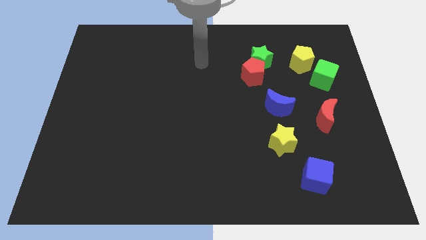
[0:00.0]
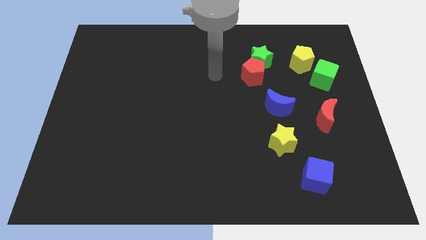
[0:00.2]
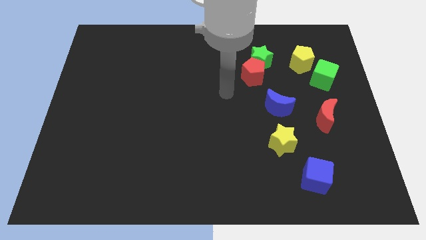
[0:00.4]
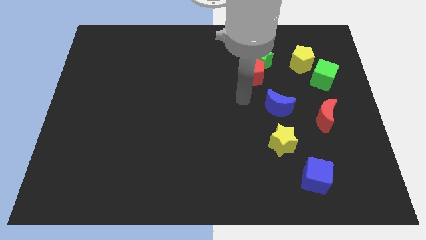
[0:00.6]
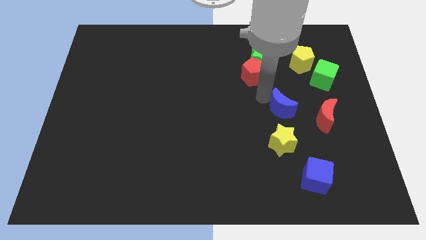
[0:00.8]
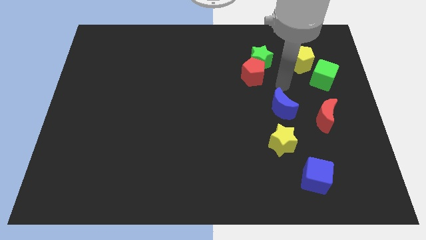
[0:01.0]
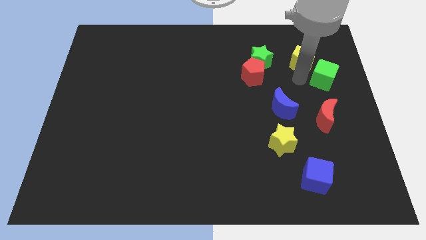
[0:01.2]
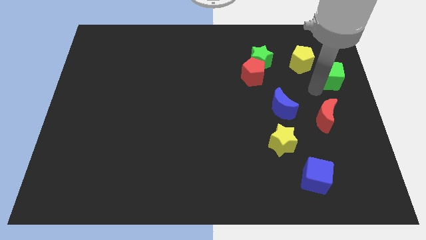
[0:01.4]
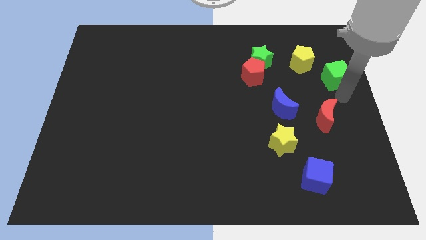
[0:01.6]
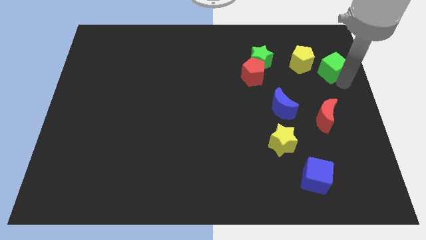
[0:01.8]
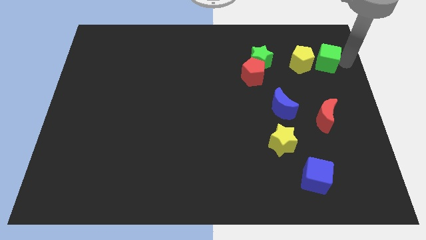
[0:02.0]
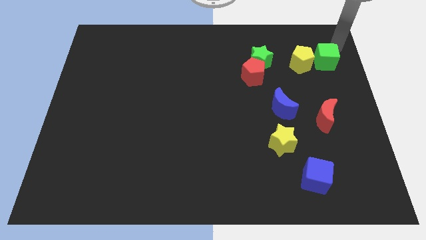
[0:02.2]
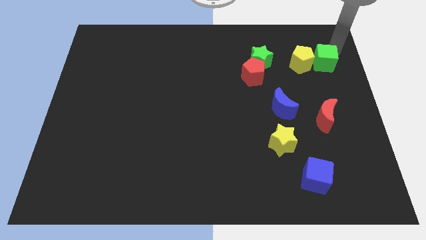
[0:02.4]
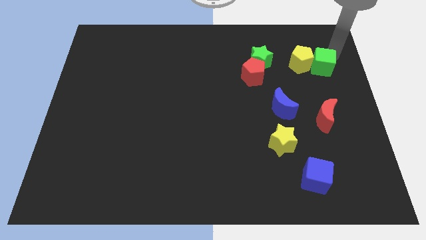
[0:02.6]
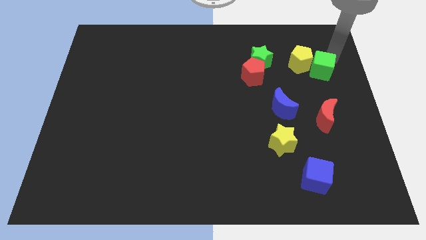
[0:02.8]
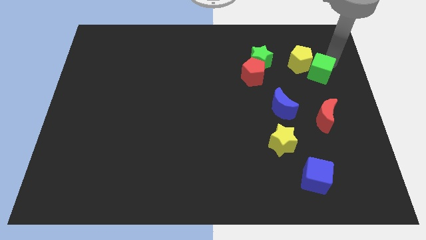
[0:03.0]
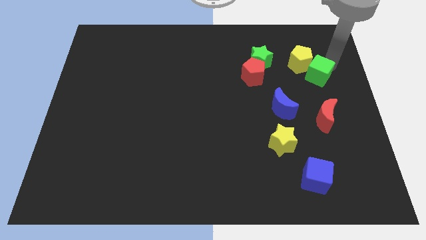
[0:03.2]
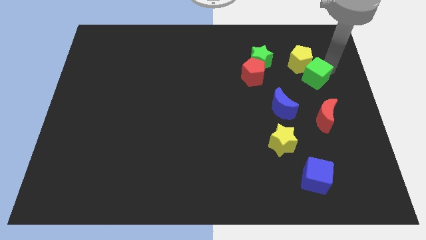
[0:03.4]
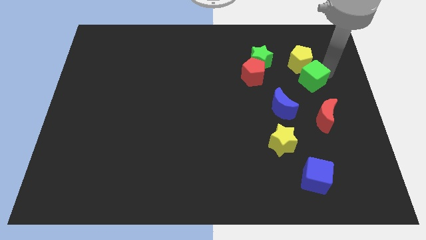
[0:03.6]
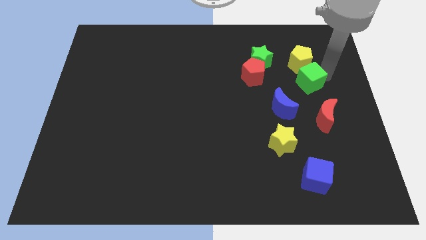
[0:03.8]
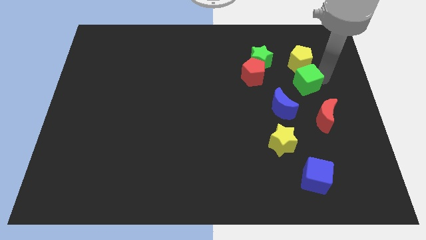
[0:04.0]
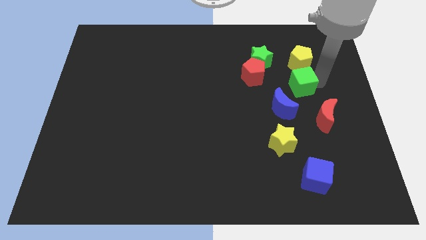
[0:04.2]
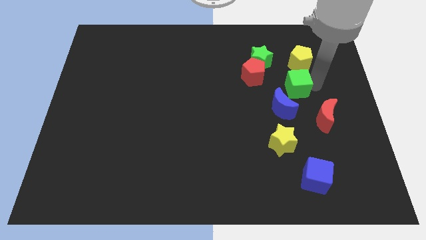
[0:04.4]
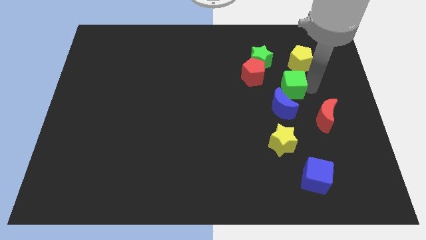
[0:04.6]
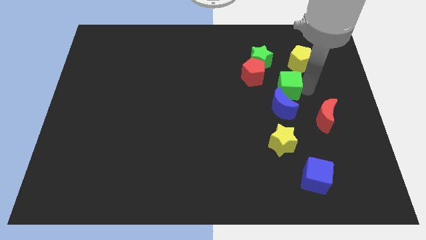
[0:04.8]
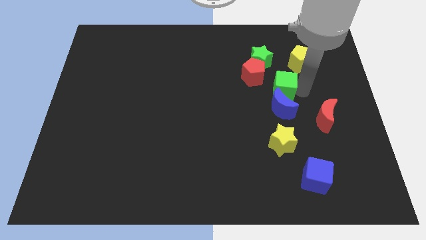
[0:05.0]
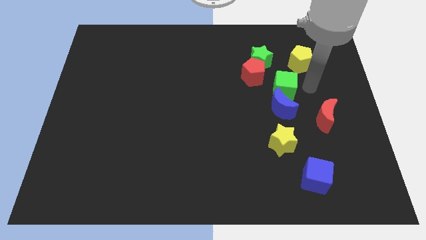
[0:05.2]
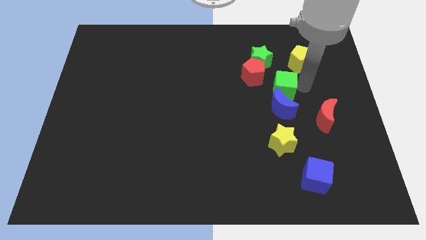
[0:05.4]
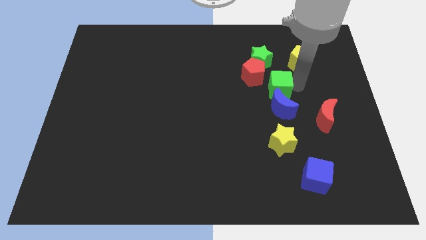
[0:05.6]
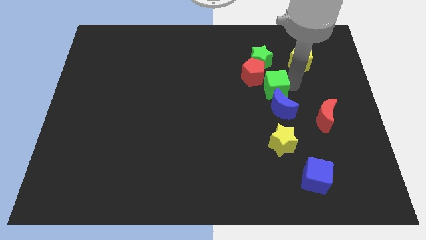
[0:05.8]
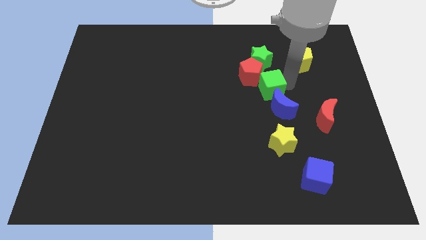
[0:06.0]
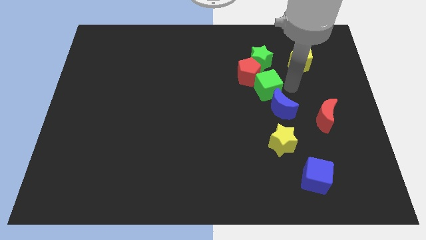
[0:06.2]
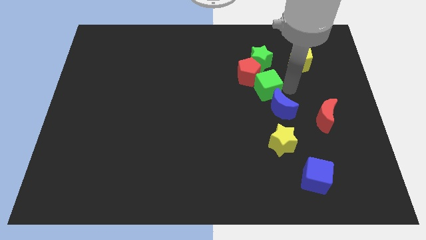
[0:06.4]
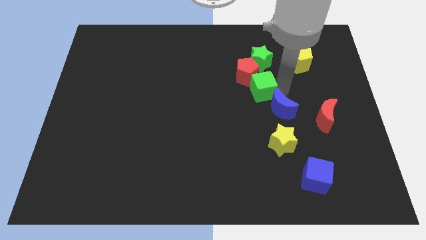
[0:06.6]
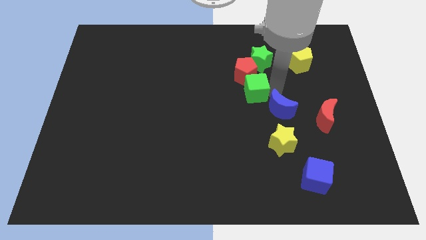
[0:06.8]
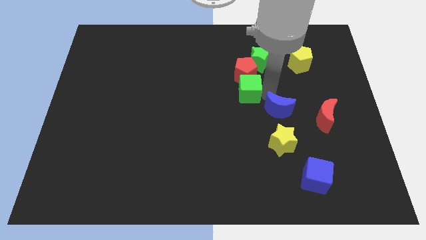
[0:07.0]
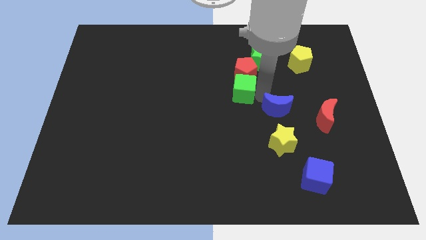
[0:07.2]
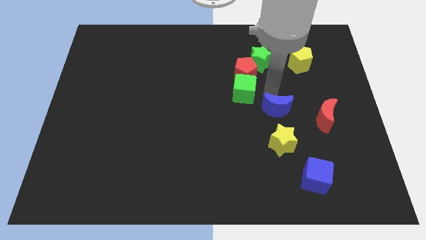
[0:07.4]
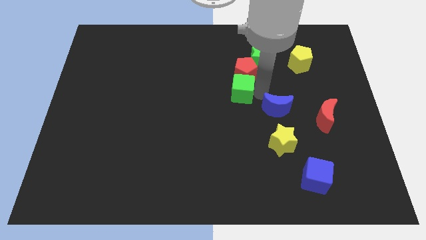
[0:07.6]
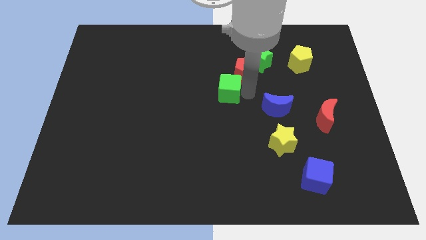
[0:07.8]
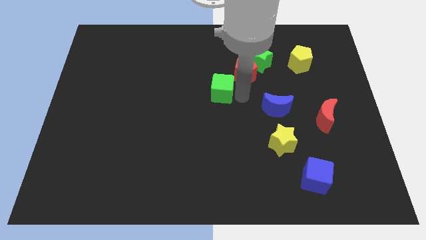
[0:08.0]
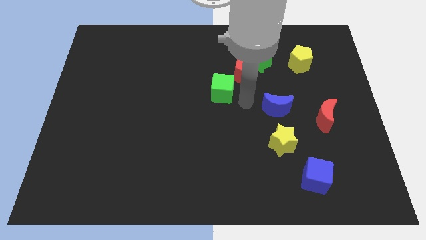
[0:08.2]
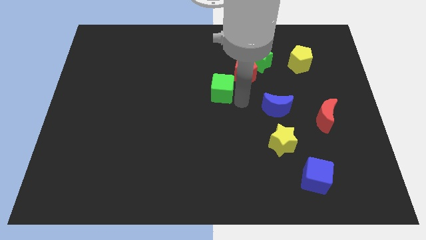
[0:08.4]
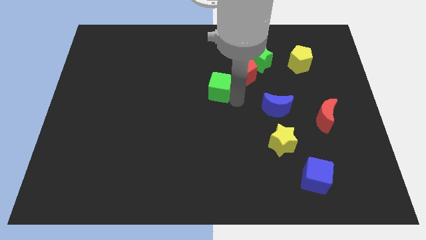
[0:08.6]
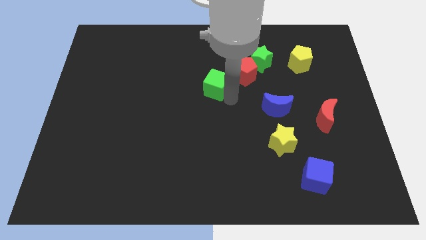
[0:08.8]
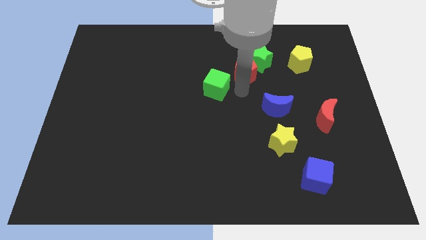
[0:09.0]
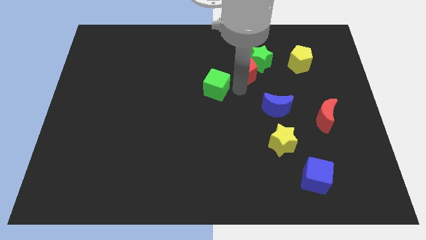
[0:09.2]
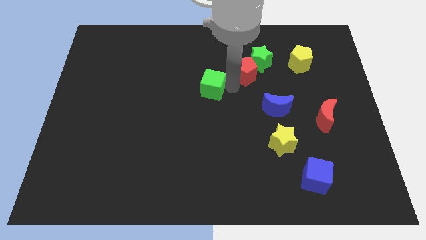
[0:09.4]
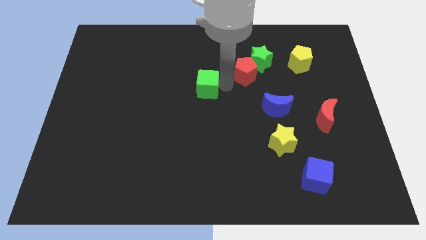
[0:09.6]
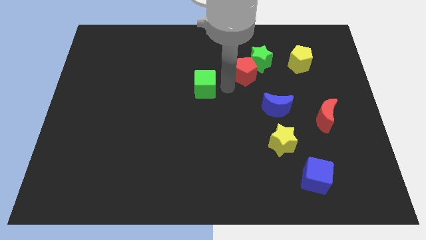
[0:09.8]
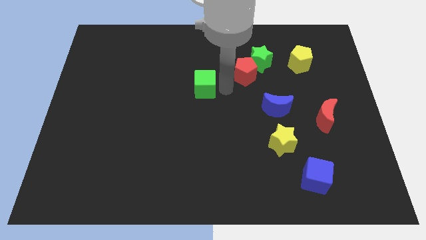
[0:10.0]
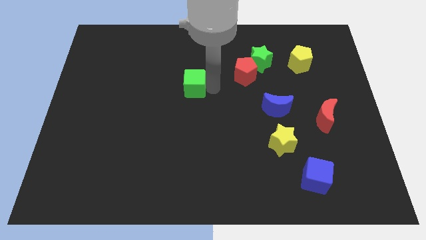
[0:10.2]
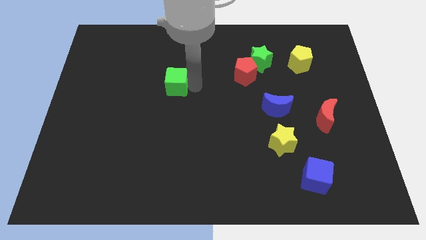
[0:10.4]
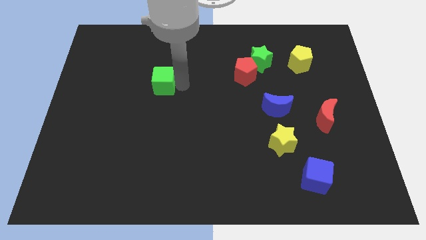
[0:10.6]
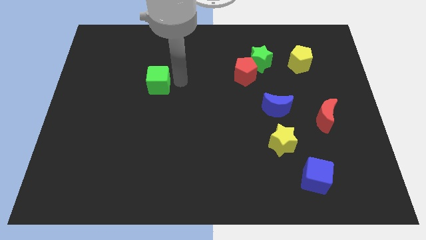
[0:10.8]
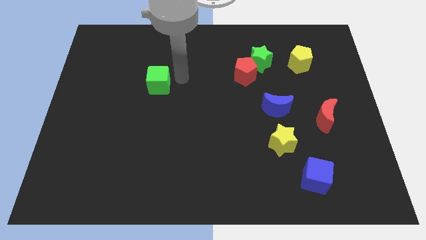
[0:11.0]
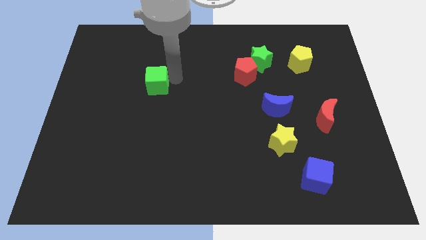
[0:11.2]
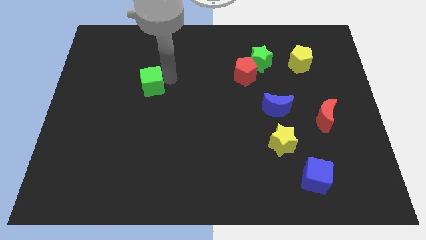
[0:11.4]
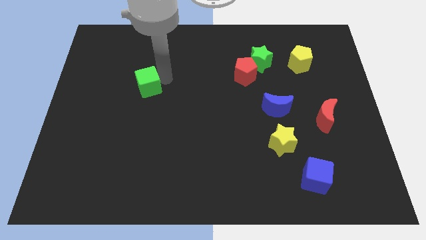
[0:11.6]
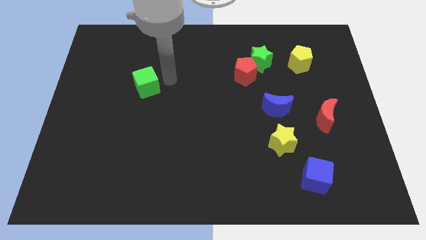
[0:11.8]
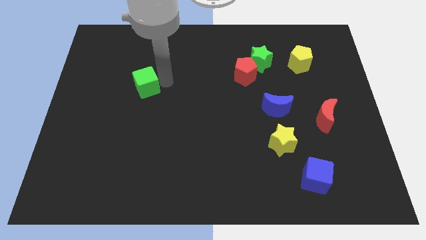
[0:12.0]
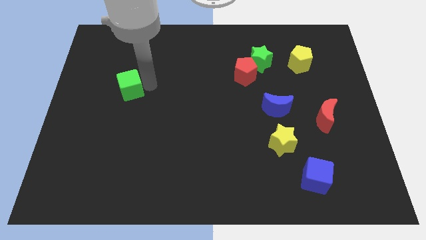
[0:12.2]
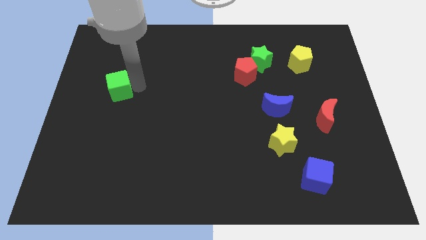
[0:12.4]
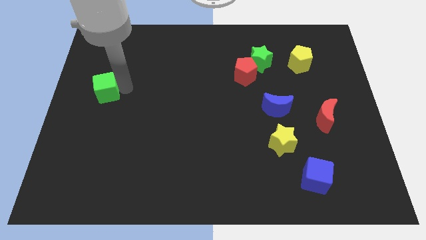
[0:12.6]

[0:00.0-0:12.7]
move the green cube to the left side

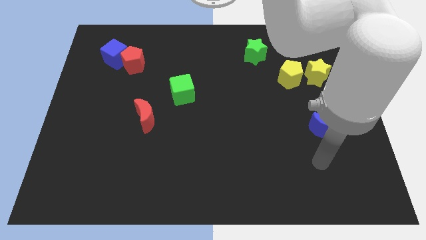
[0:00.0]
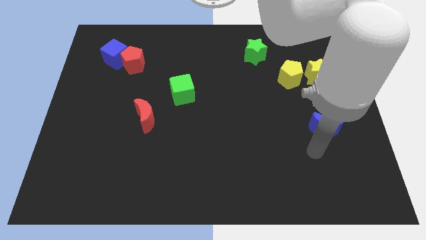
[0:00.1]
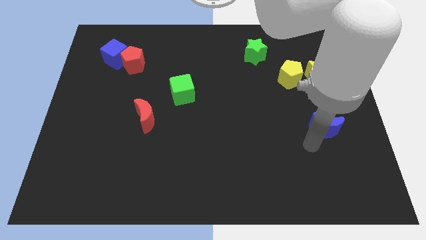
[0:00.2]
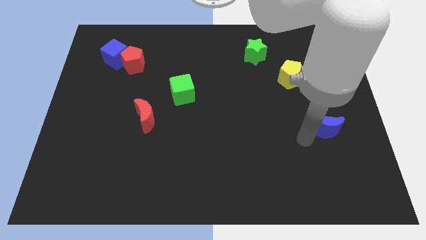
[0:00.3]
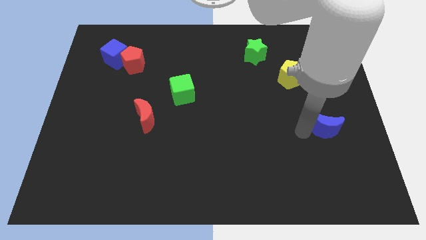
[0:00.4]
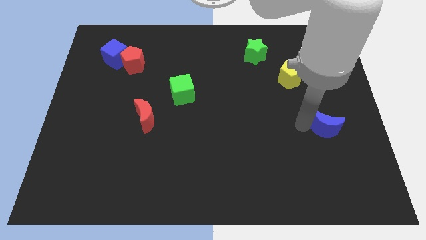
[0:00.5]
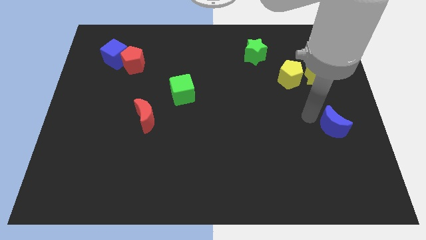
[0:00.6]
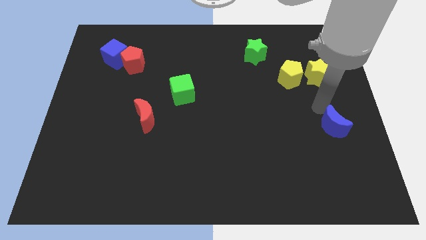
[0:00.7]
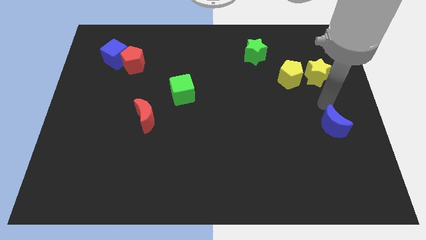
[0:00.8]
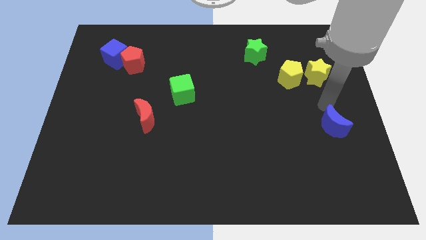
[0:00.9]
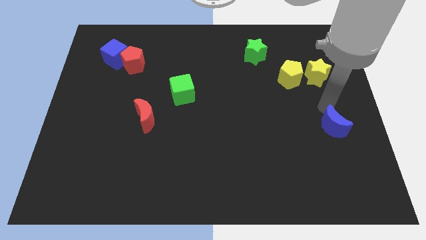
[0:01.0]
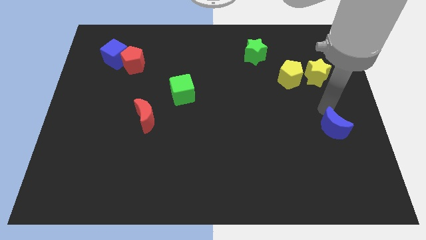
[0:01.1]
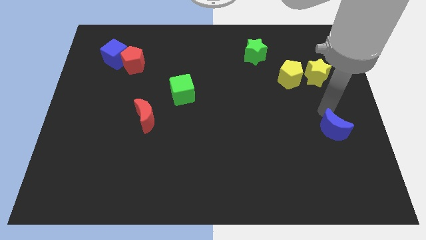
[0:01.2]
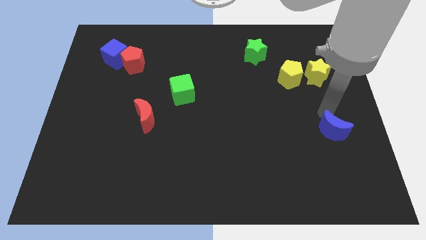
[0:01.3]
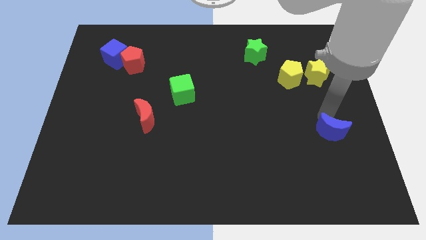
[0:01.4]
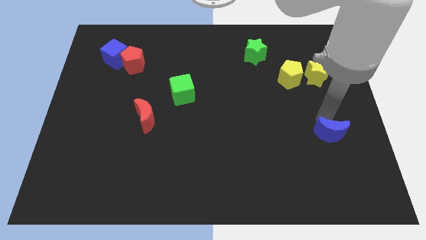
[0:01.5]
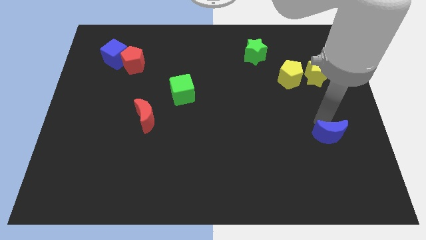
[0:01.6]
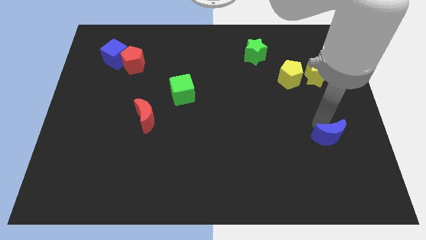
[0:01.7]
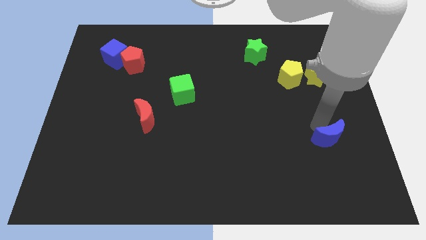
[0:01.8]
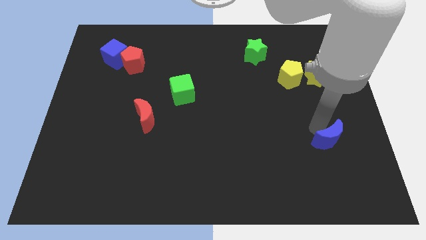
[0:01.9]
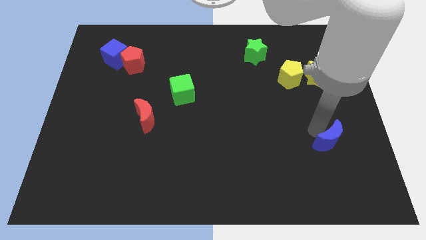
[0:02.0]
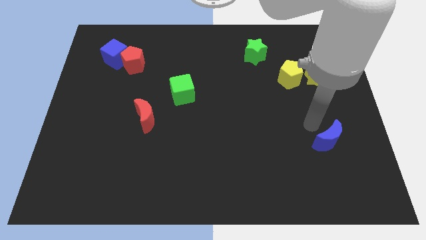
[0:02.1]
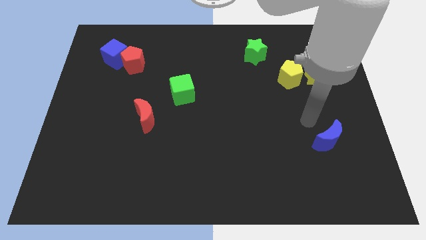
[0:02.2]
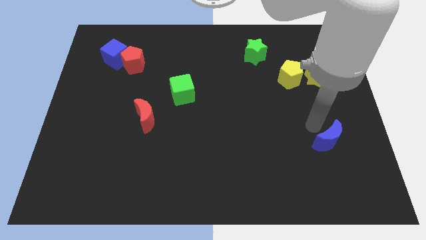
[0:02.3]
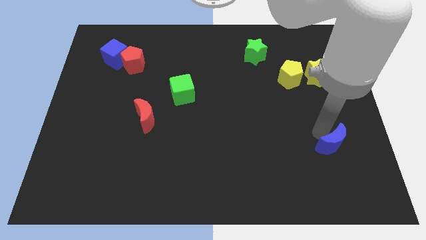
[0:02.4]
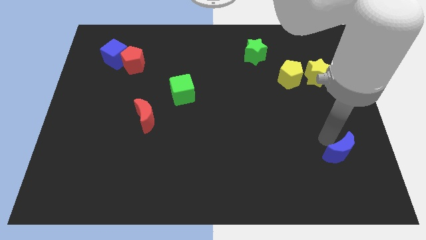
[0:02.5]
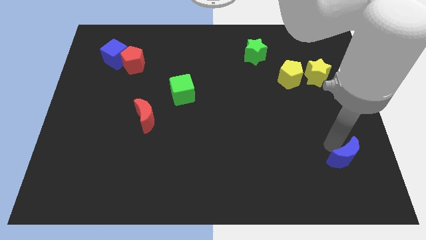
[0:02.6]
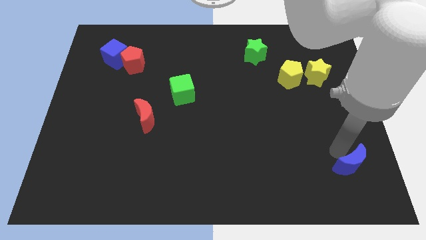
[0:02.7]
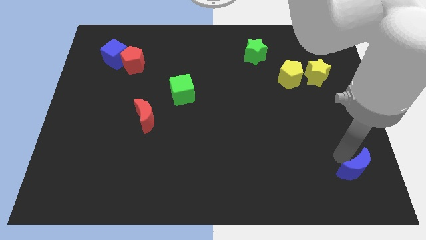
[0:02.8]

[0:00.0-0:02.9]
move the blue moon to the bottom right of the board
